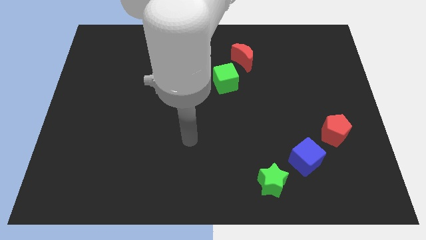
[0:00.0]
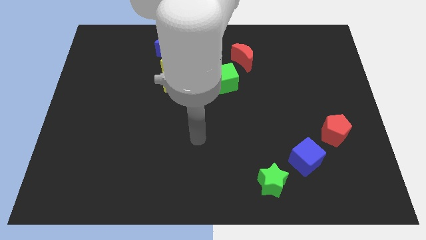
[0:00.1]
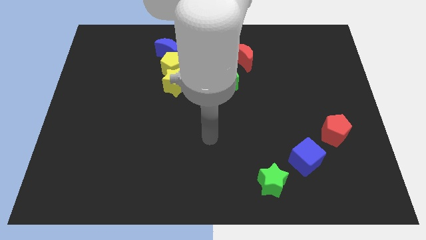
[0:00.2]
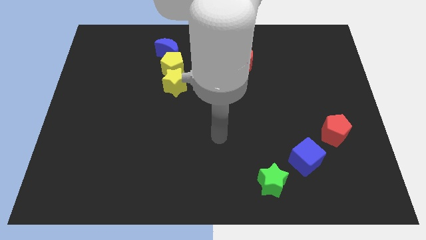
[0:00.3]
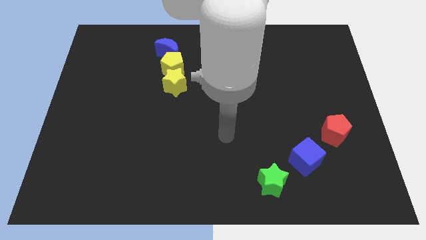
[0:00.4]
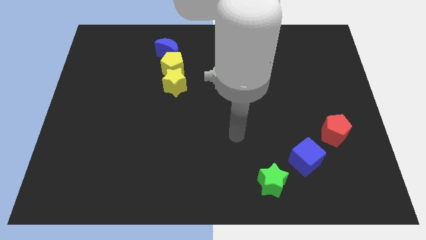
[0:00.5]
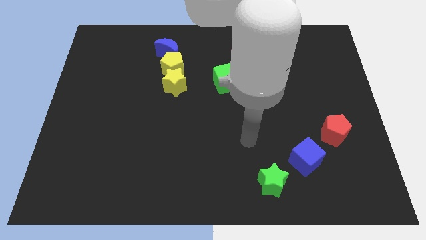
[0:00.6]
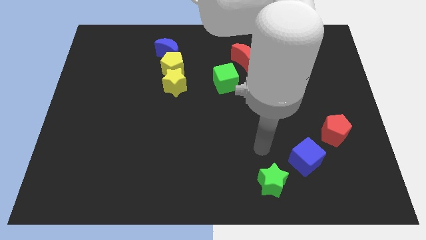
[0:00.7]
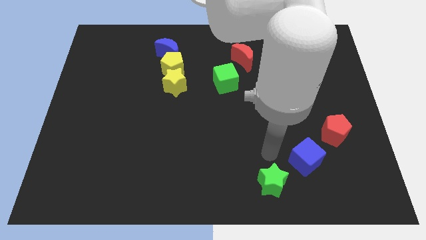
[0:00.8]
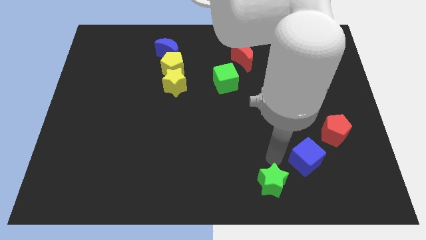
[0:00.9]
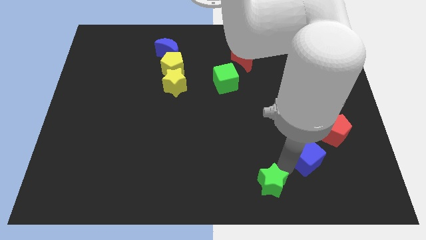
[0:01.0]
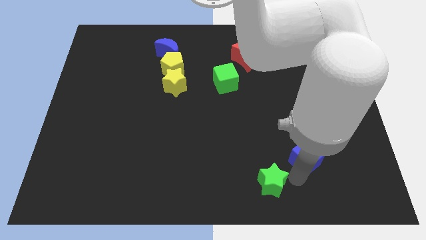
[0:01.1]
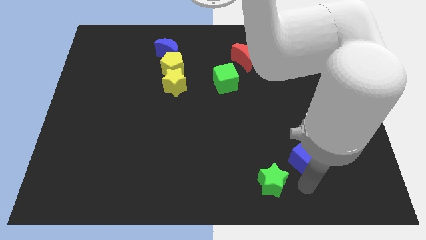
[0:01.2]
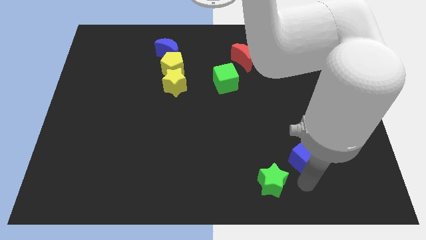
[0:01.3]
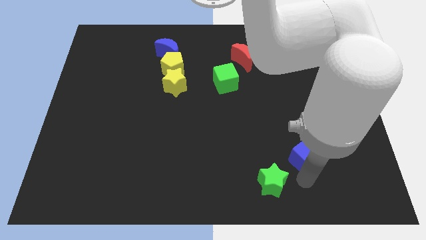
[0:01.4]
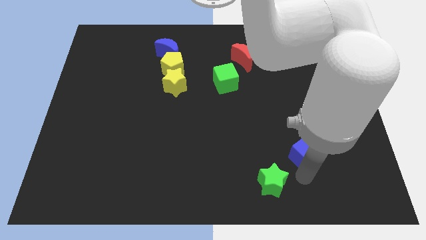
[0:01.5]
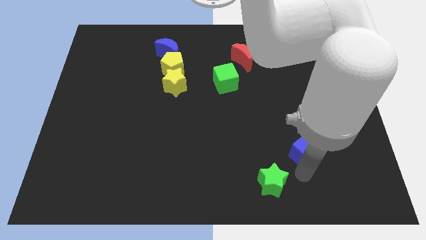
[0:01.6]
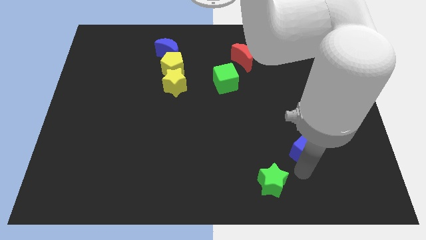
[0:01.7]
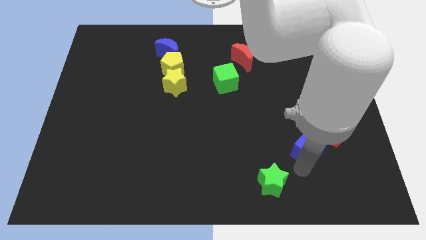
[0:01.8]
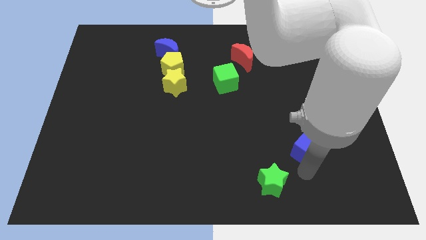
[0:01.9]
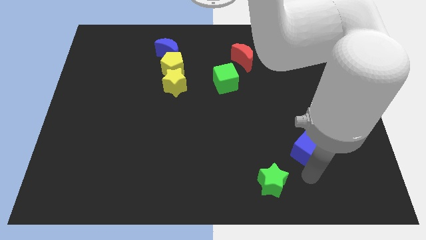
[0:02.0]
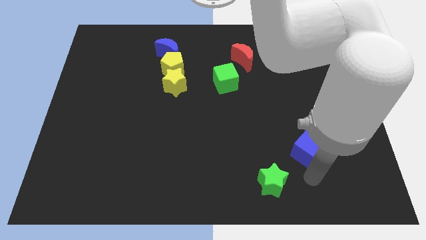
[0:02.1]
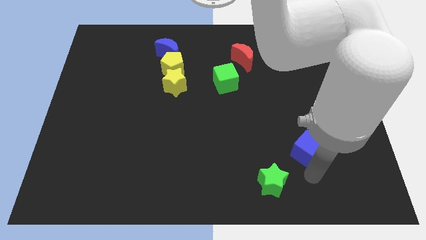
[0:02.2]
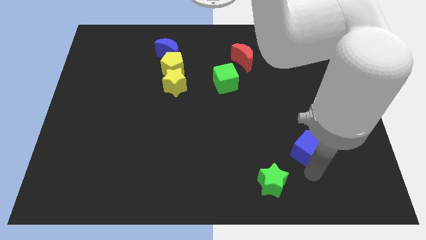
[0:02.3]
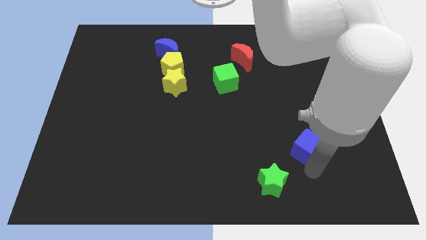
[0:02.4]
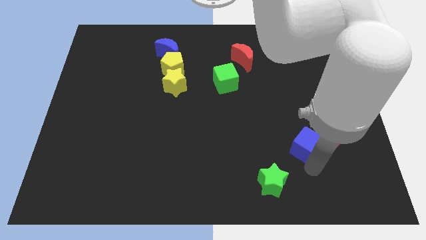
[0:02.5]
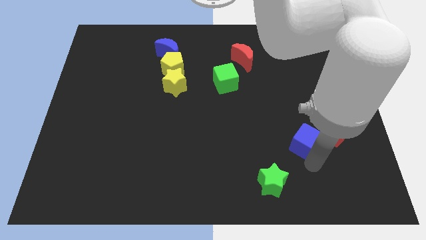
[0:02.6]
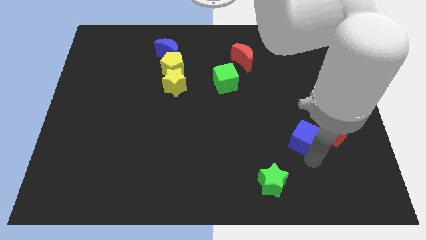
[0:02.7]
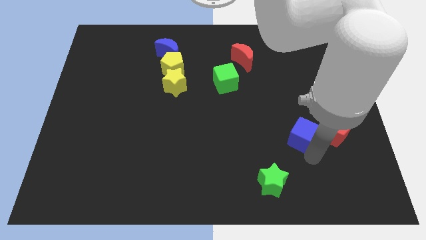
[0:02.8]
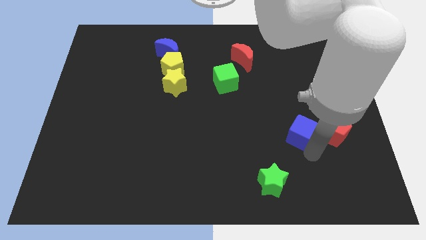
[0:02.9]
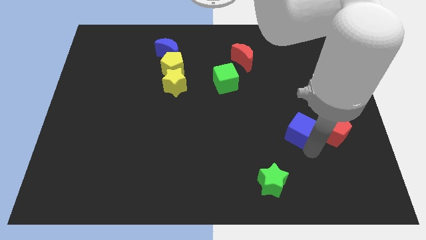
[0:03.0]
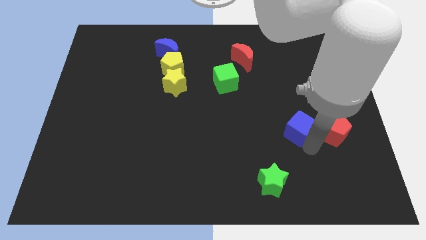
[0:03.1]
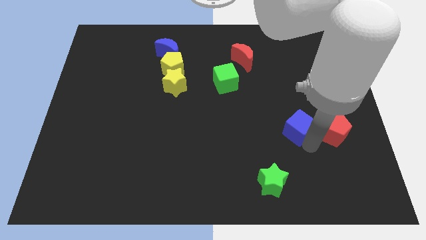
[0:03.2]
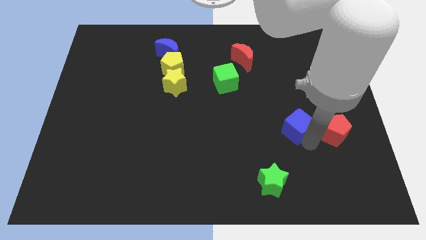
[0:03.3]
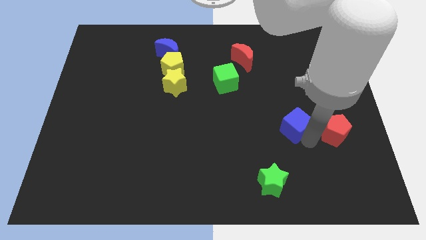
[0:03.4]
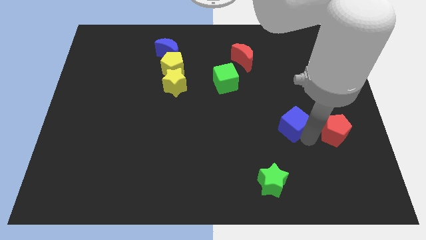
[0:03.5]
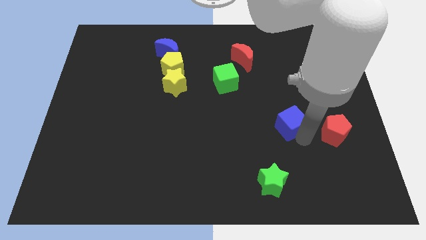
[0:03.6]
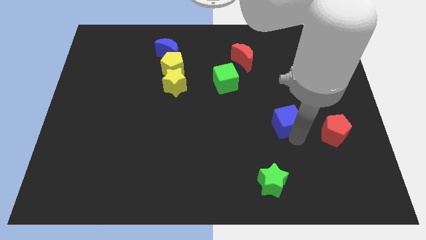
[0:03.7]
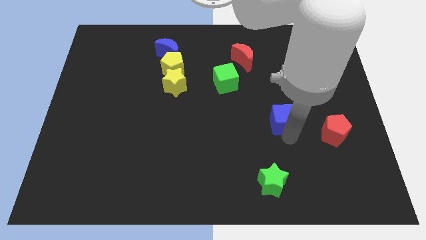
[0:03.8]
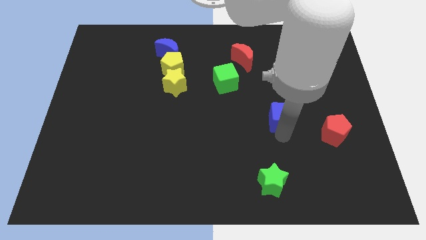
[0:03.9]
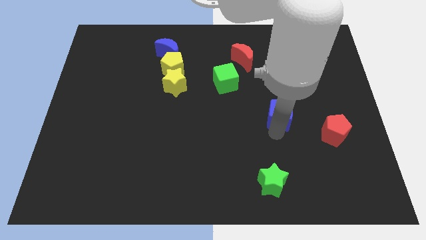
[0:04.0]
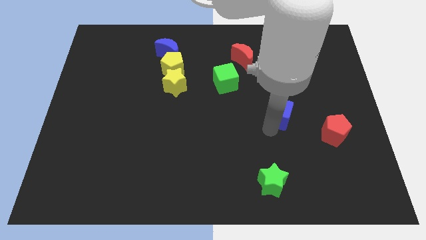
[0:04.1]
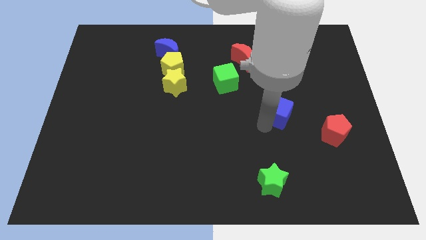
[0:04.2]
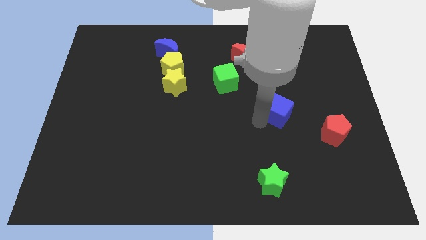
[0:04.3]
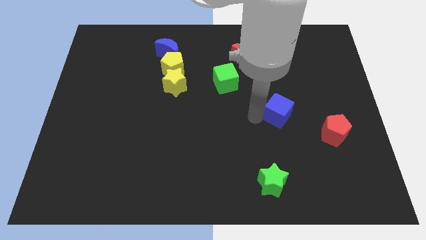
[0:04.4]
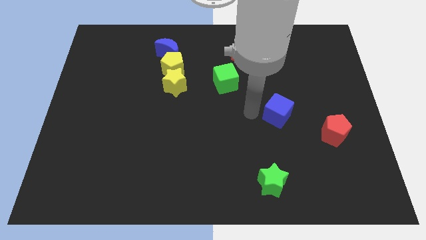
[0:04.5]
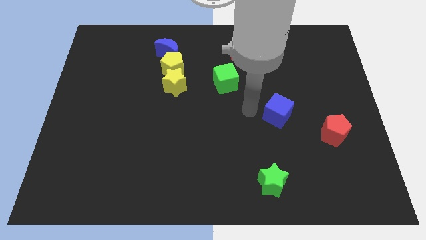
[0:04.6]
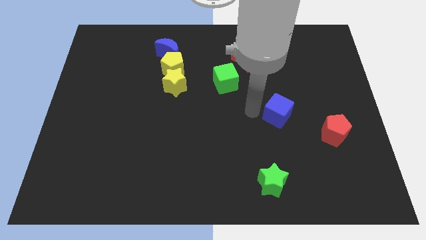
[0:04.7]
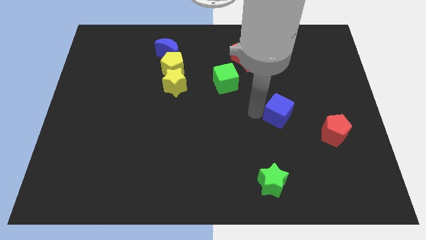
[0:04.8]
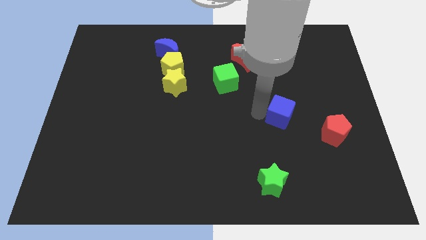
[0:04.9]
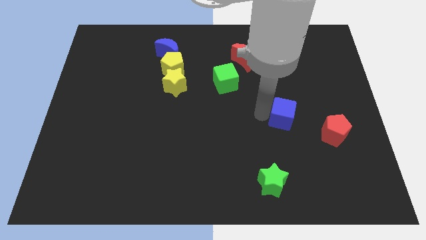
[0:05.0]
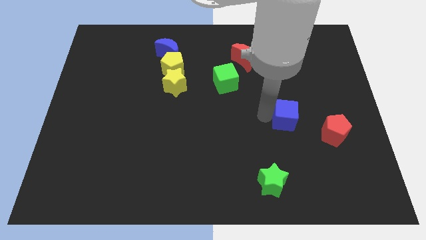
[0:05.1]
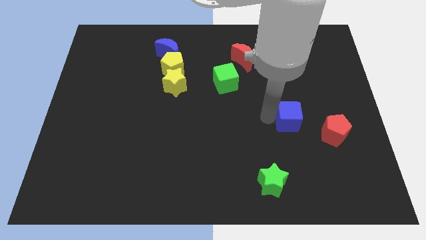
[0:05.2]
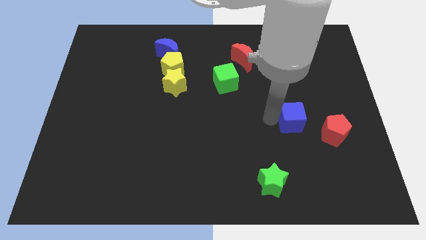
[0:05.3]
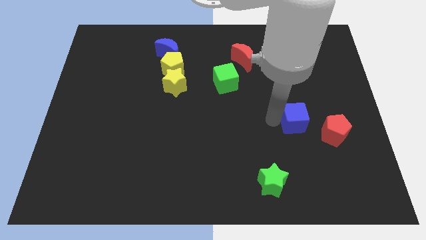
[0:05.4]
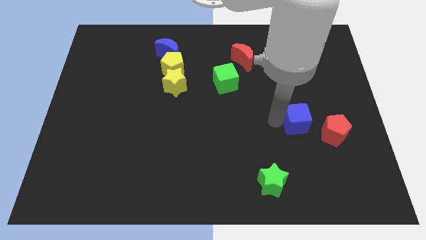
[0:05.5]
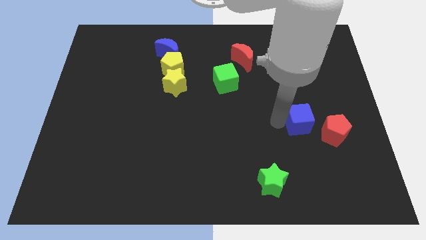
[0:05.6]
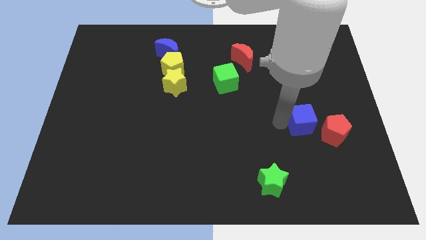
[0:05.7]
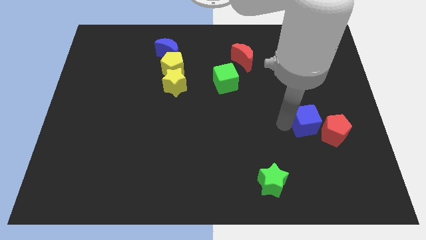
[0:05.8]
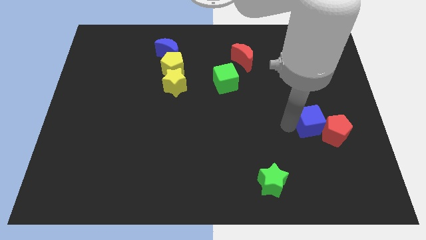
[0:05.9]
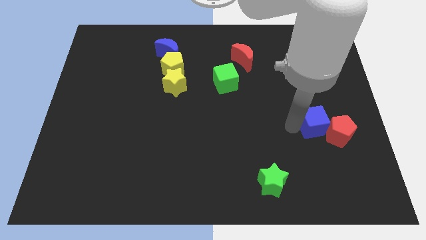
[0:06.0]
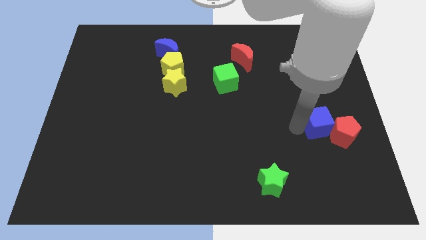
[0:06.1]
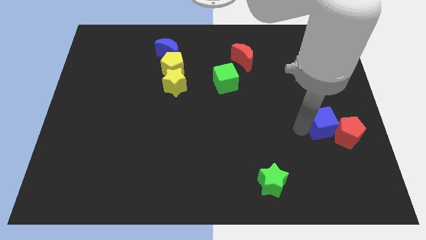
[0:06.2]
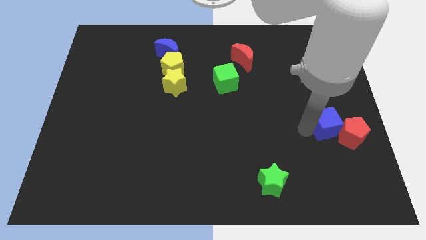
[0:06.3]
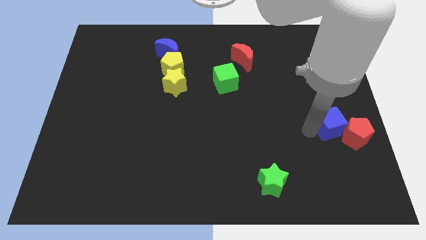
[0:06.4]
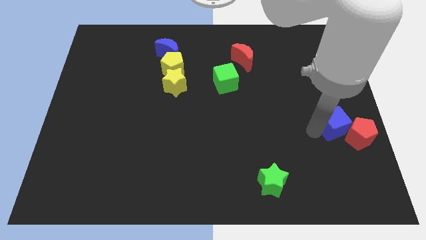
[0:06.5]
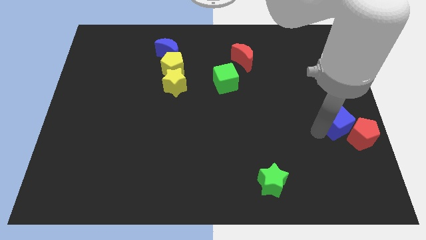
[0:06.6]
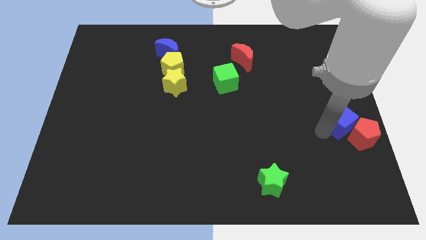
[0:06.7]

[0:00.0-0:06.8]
slide the blue cube above the red pentagon

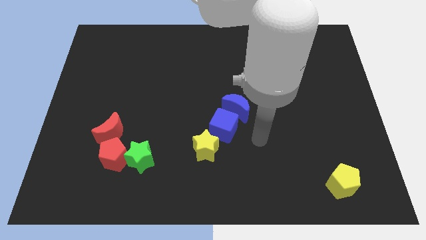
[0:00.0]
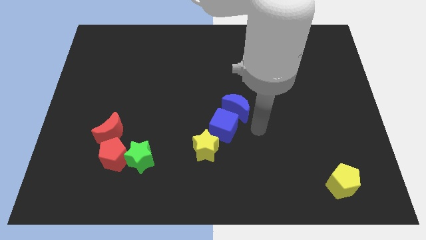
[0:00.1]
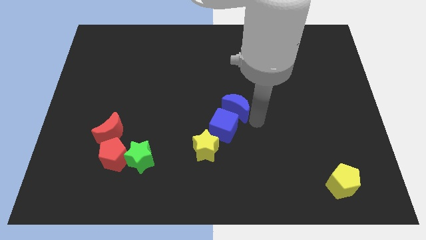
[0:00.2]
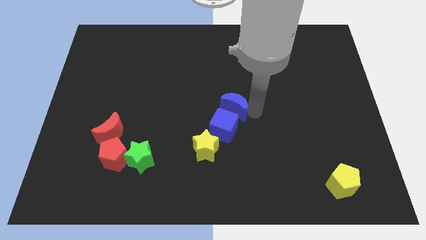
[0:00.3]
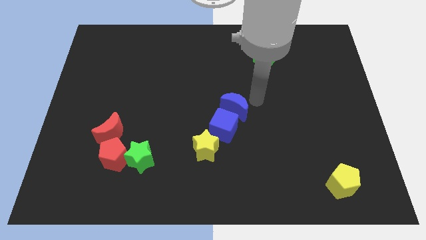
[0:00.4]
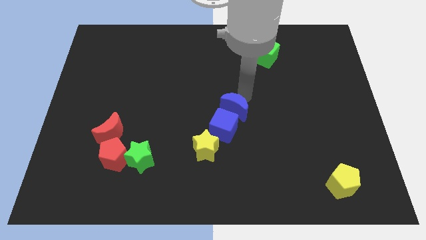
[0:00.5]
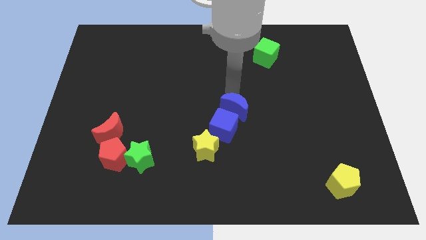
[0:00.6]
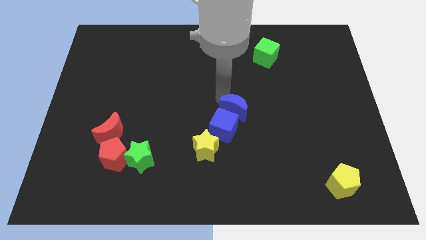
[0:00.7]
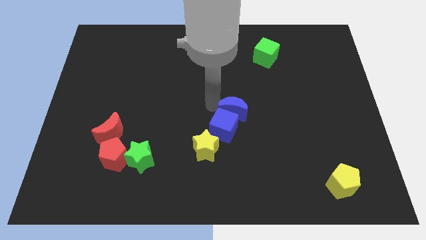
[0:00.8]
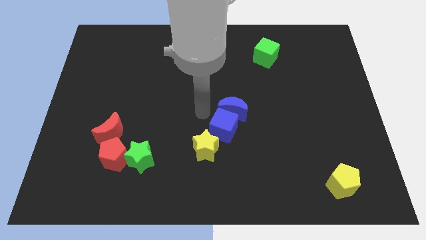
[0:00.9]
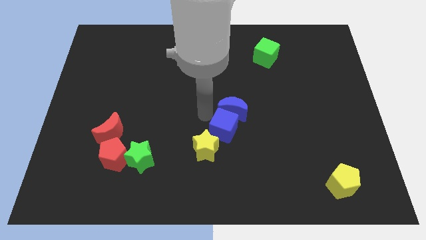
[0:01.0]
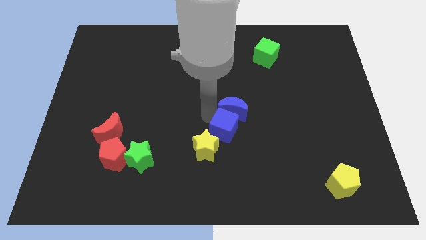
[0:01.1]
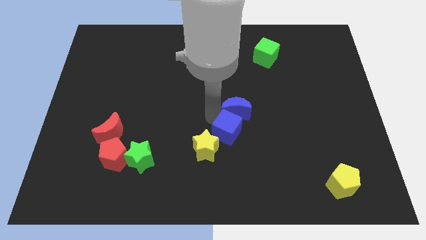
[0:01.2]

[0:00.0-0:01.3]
move the blue cube right of the yellow star
